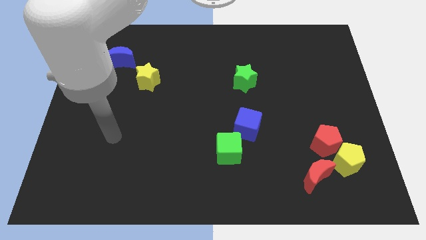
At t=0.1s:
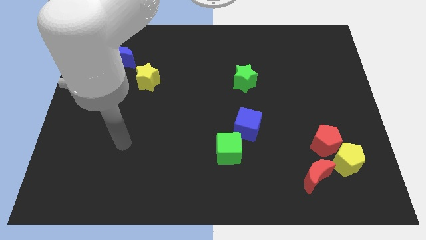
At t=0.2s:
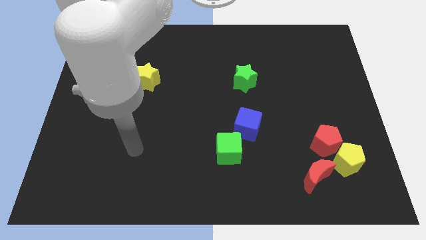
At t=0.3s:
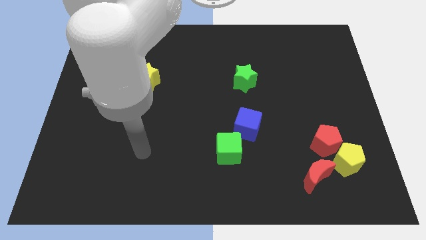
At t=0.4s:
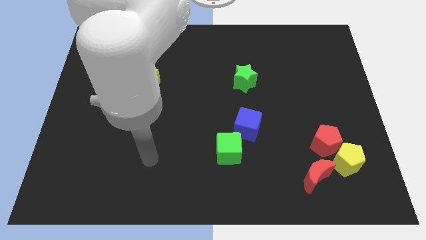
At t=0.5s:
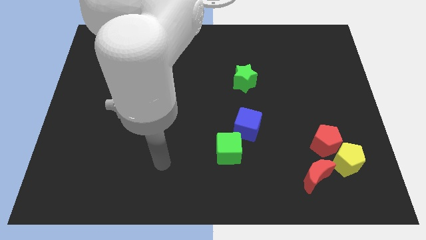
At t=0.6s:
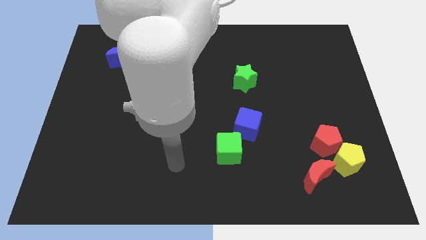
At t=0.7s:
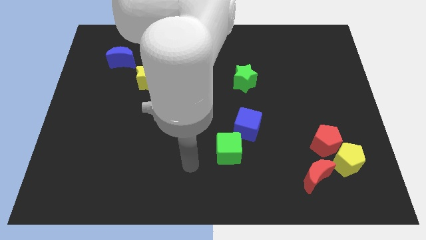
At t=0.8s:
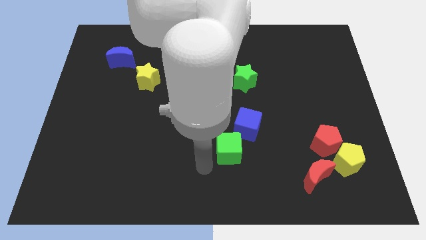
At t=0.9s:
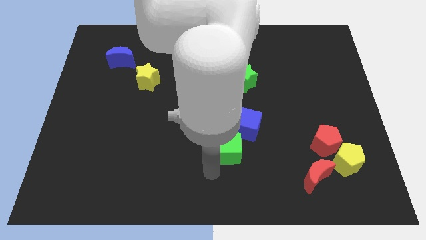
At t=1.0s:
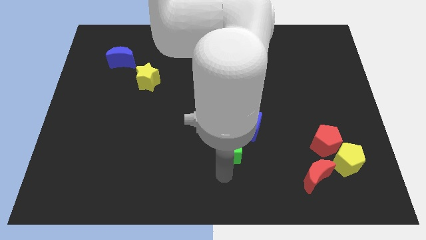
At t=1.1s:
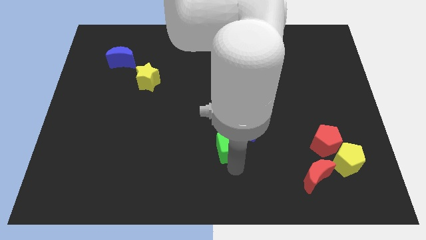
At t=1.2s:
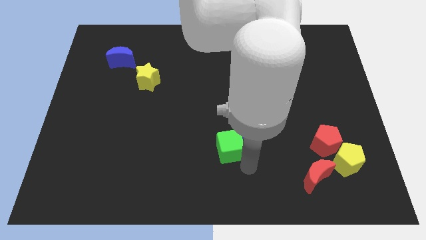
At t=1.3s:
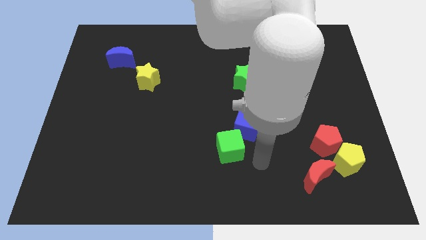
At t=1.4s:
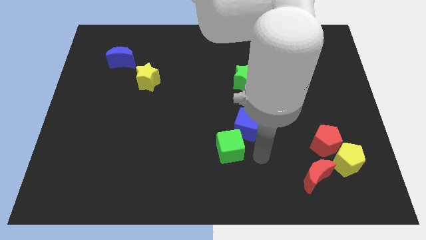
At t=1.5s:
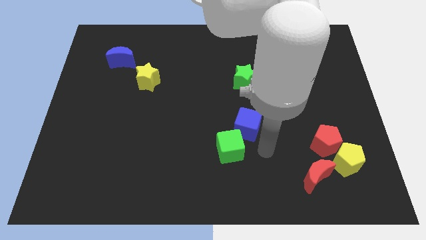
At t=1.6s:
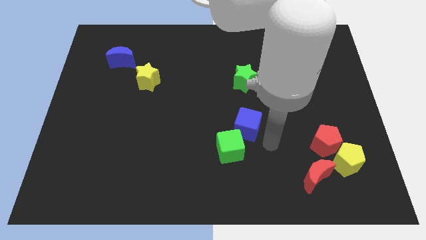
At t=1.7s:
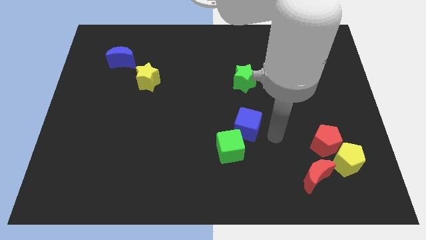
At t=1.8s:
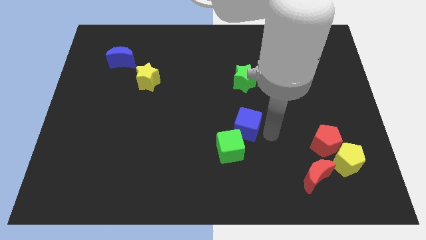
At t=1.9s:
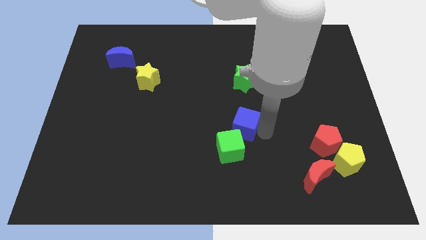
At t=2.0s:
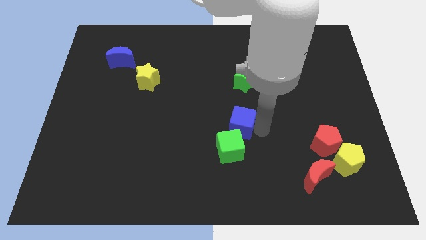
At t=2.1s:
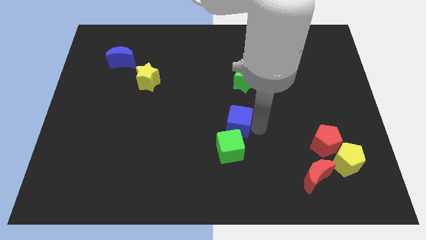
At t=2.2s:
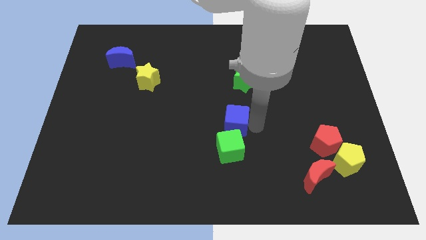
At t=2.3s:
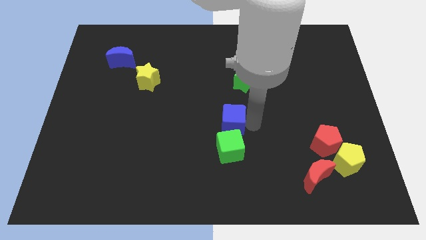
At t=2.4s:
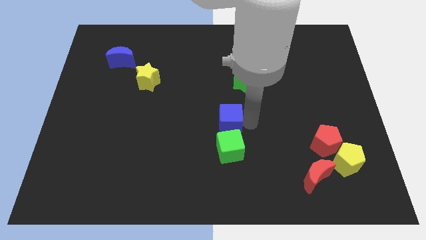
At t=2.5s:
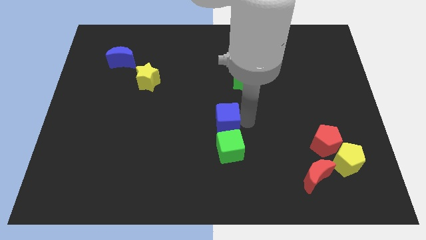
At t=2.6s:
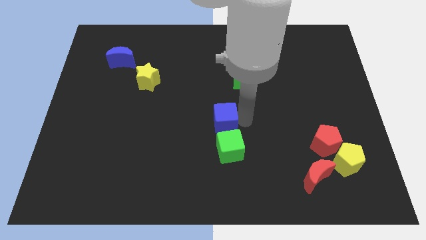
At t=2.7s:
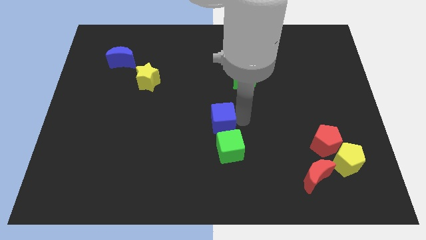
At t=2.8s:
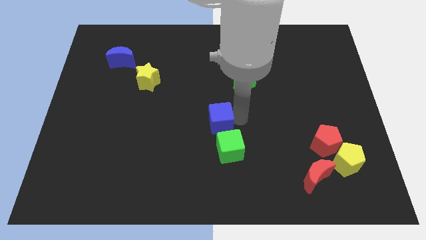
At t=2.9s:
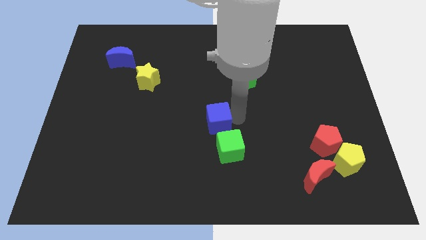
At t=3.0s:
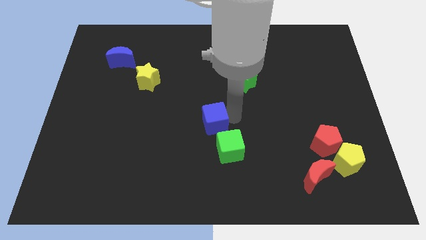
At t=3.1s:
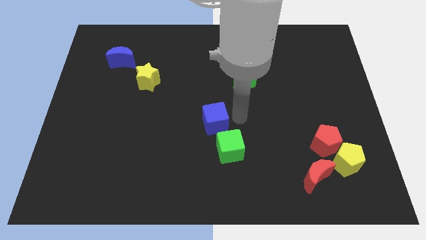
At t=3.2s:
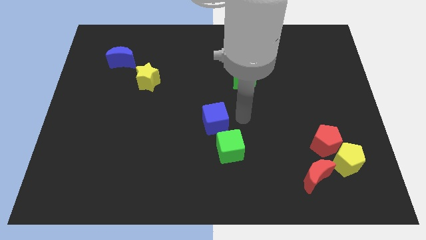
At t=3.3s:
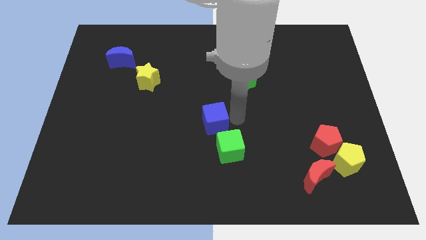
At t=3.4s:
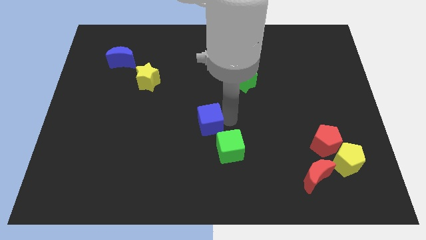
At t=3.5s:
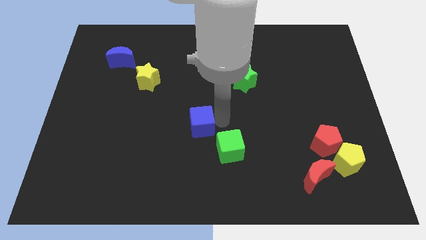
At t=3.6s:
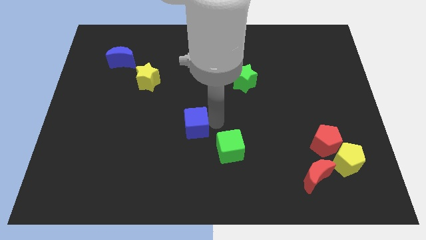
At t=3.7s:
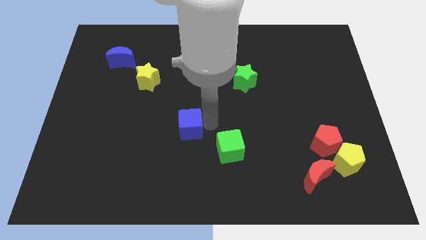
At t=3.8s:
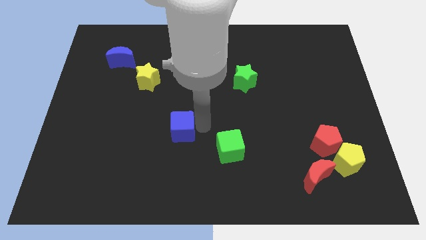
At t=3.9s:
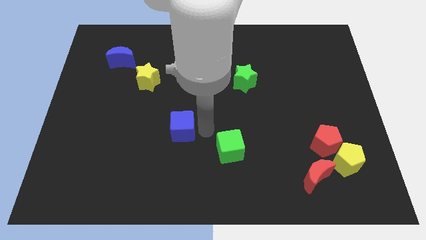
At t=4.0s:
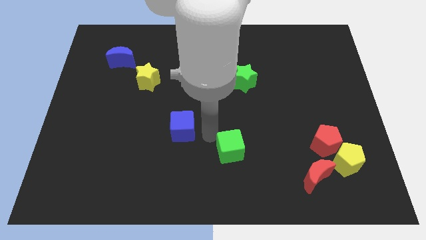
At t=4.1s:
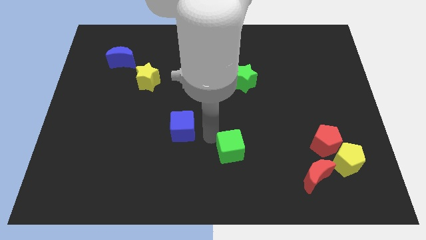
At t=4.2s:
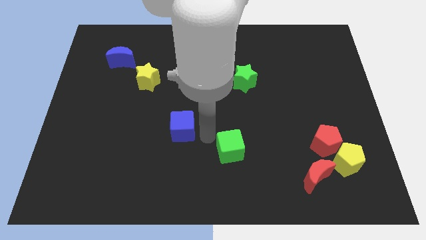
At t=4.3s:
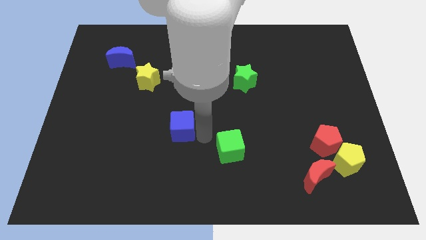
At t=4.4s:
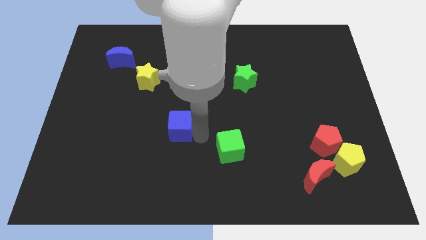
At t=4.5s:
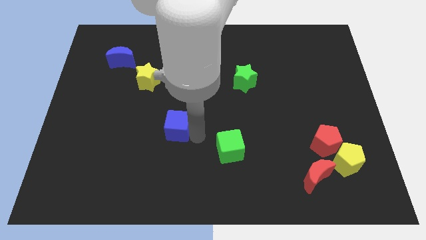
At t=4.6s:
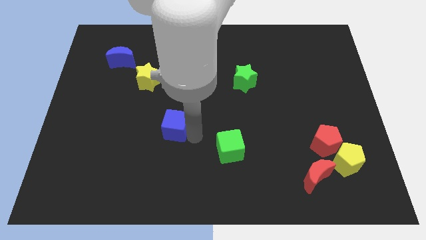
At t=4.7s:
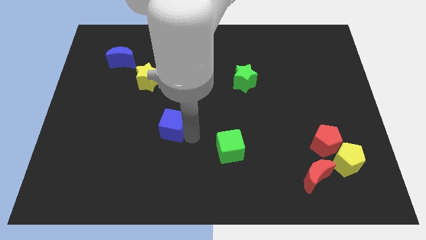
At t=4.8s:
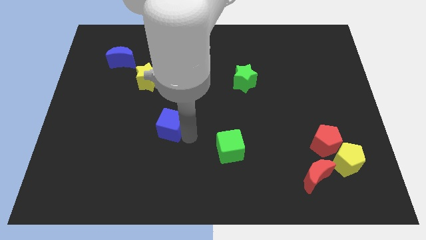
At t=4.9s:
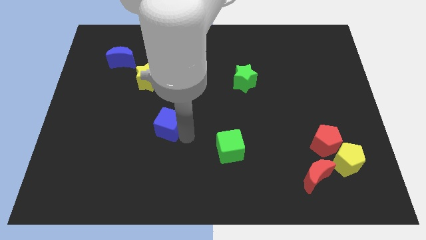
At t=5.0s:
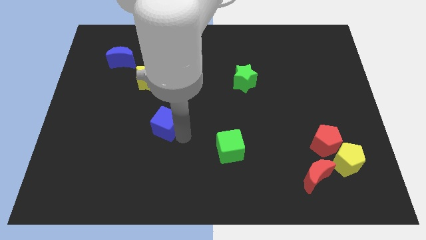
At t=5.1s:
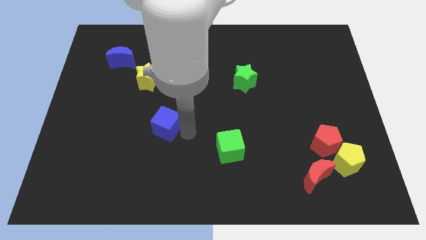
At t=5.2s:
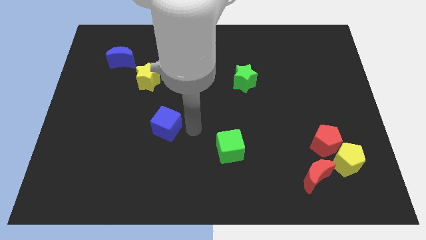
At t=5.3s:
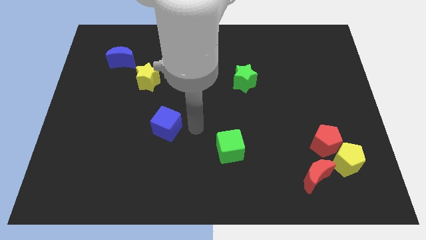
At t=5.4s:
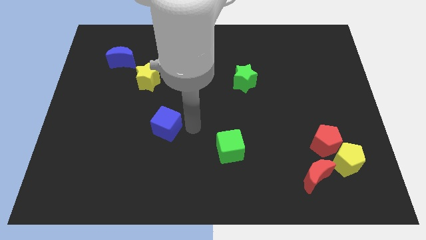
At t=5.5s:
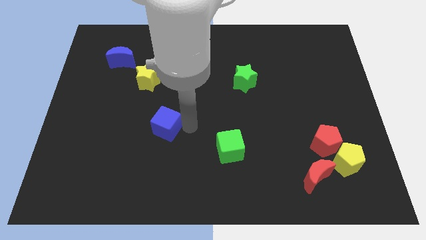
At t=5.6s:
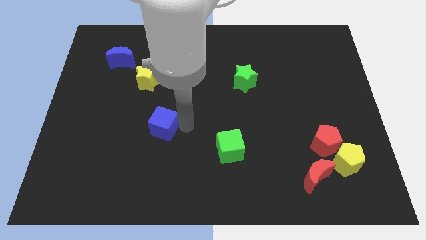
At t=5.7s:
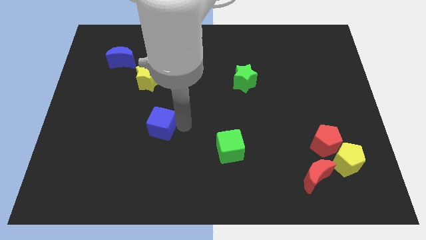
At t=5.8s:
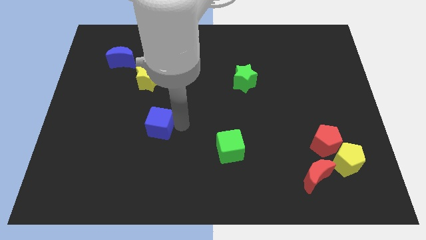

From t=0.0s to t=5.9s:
push the blue cube to the left

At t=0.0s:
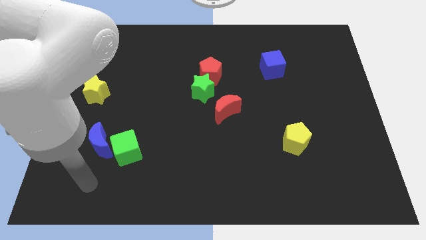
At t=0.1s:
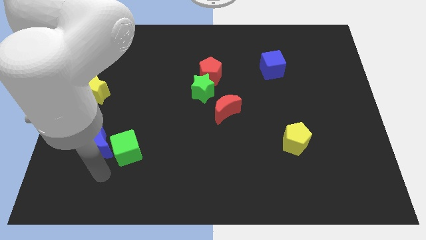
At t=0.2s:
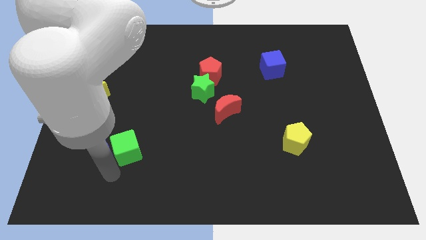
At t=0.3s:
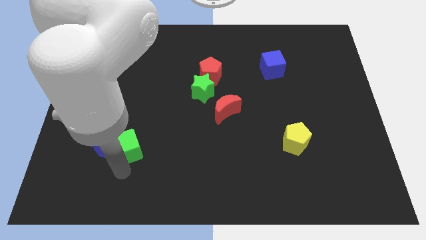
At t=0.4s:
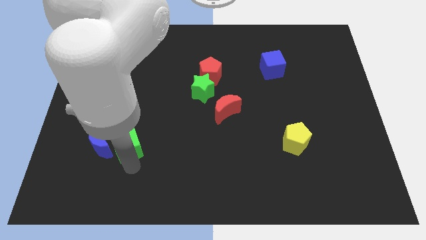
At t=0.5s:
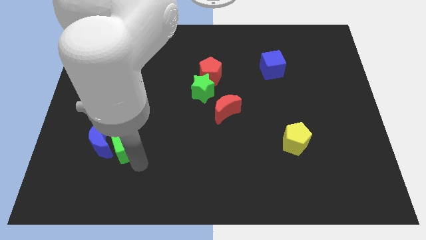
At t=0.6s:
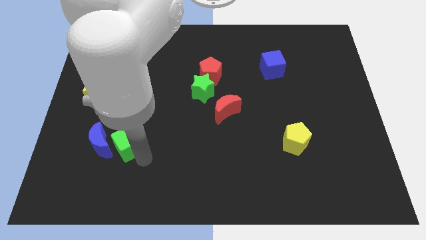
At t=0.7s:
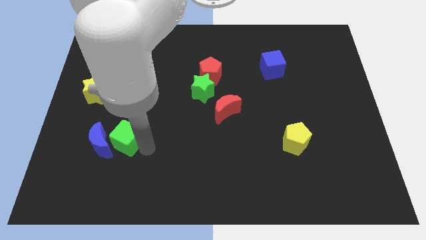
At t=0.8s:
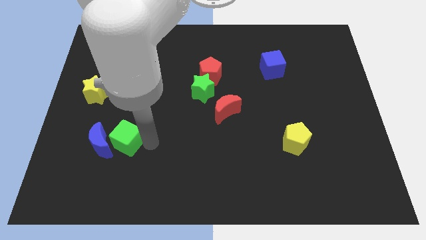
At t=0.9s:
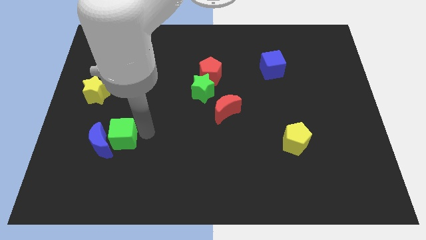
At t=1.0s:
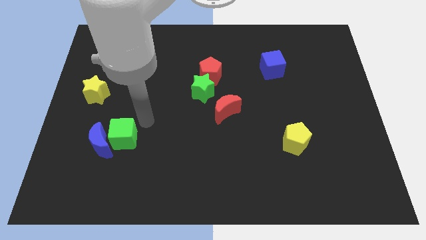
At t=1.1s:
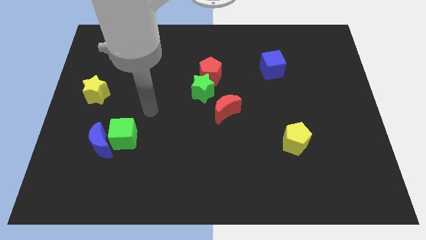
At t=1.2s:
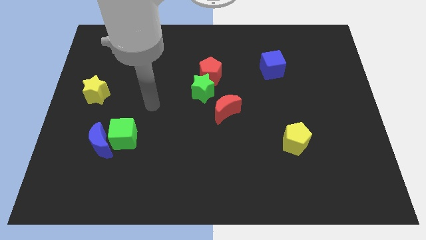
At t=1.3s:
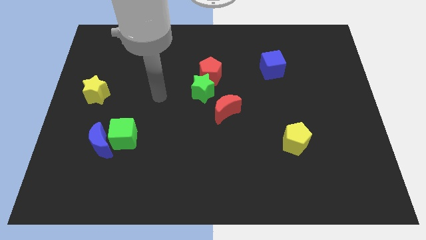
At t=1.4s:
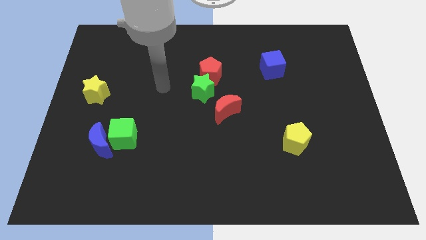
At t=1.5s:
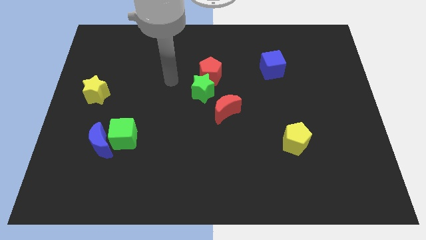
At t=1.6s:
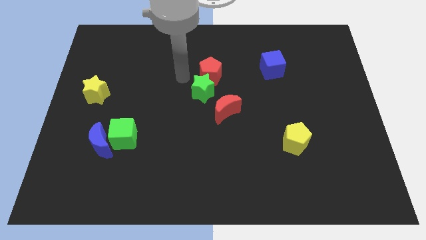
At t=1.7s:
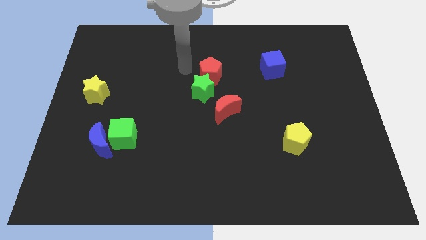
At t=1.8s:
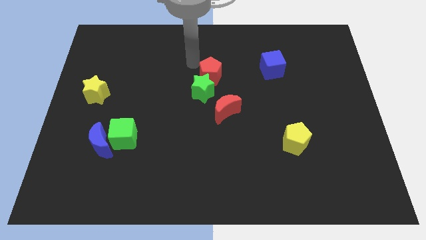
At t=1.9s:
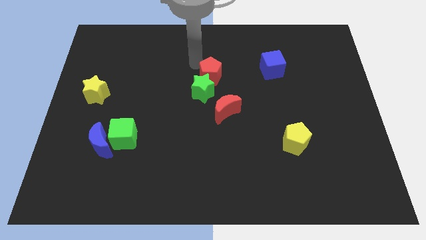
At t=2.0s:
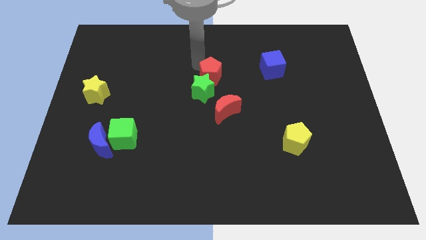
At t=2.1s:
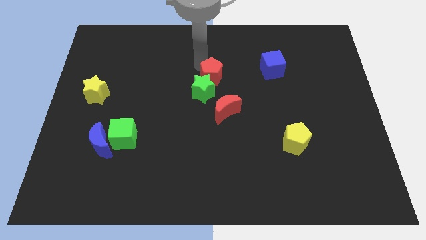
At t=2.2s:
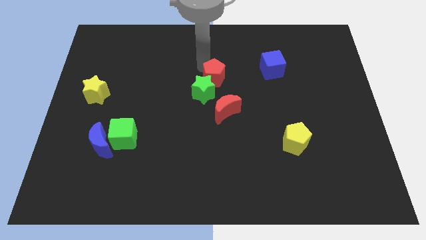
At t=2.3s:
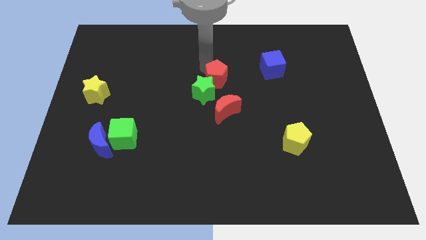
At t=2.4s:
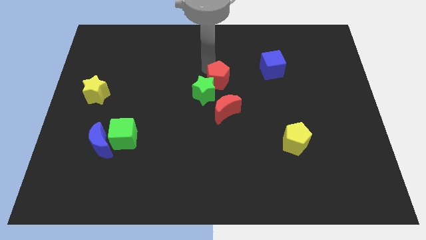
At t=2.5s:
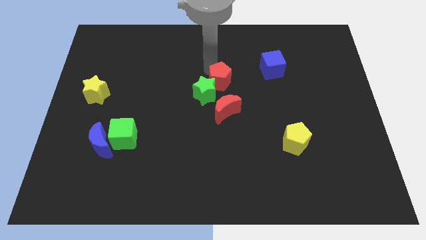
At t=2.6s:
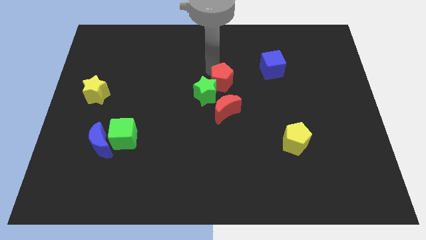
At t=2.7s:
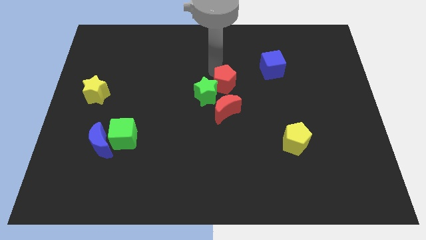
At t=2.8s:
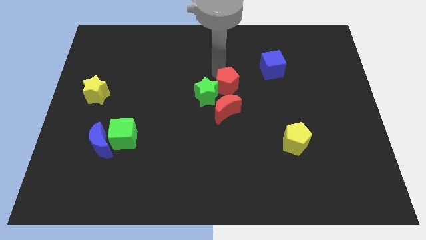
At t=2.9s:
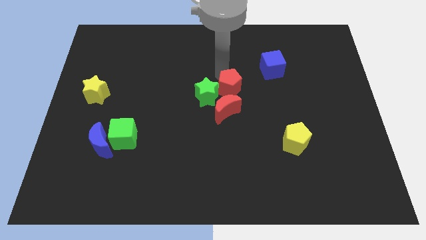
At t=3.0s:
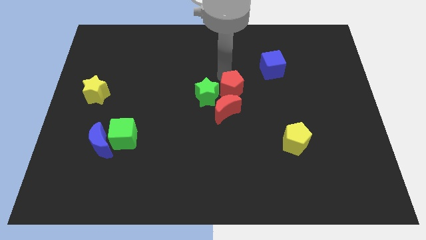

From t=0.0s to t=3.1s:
slide the red pentagon a bit diagonally downwards and to the right
